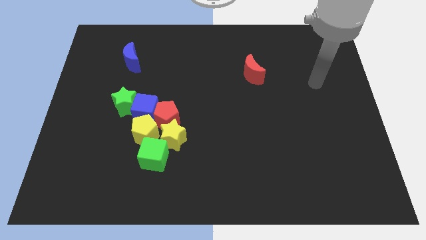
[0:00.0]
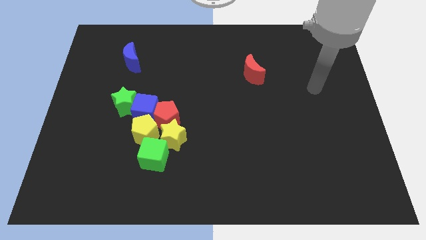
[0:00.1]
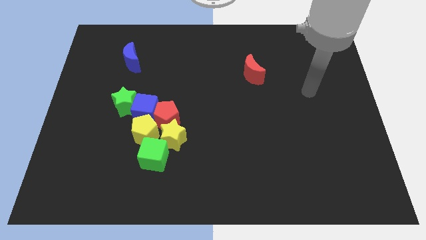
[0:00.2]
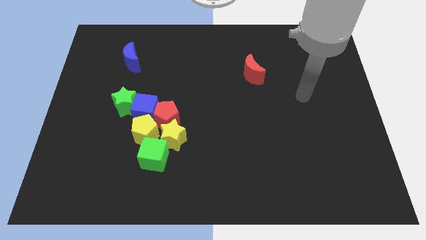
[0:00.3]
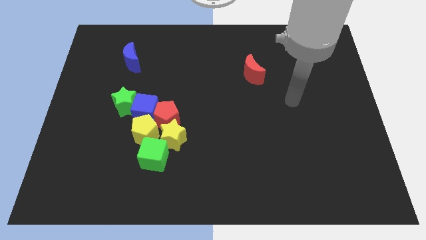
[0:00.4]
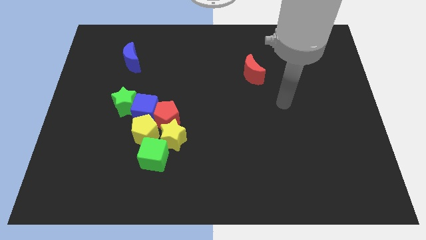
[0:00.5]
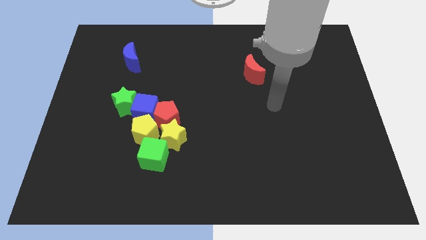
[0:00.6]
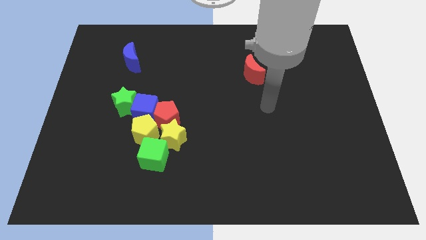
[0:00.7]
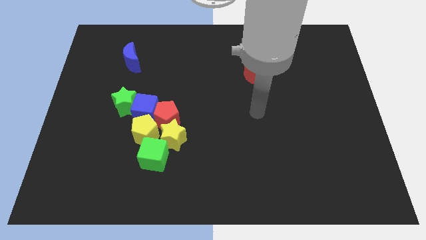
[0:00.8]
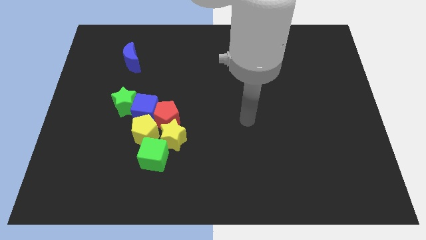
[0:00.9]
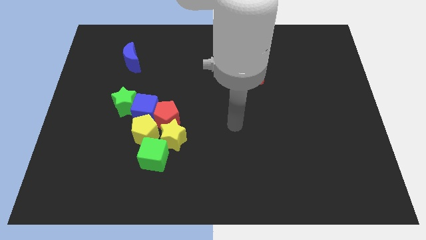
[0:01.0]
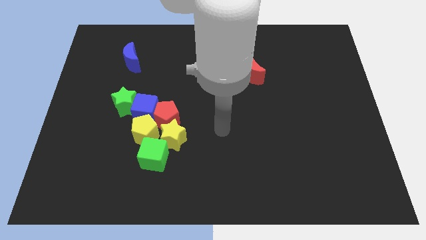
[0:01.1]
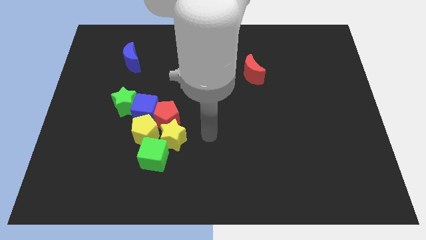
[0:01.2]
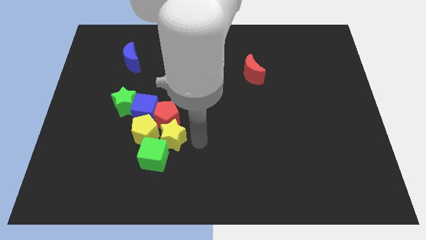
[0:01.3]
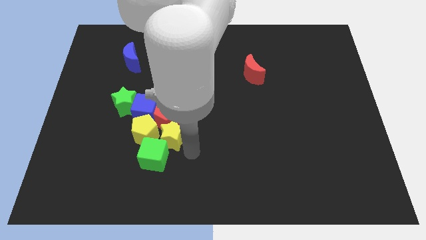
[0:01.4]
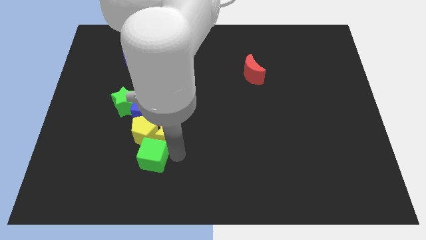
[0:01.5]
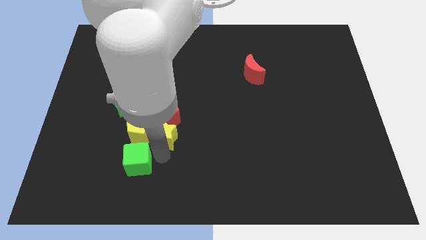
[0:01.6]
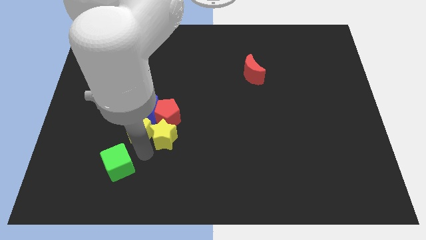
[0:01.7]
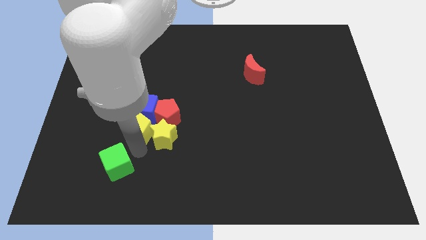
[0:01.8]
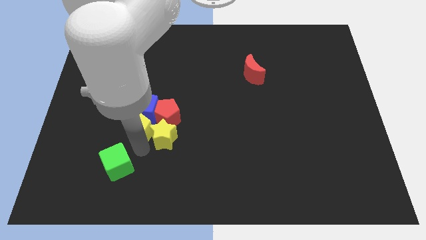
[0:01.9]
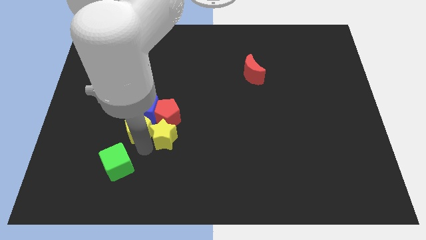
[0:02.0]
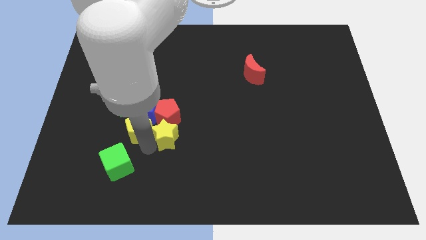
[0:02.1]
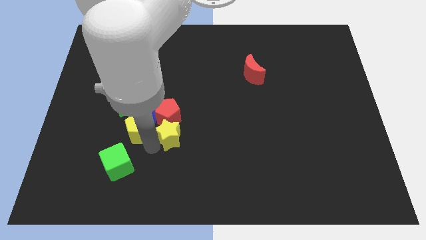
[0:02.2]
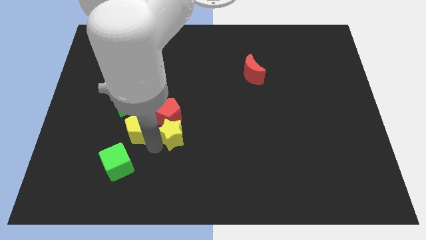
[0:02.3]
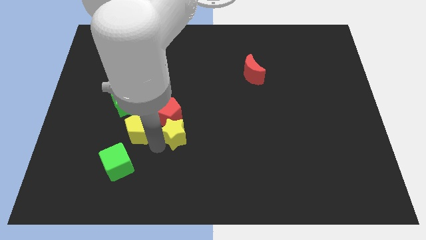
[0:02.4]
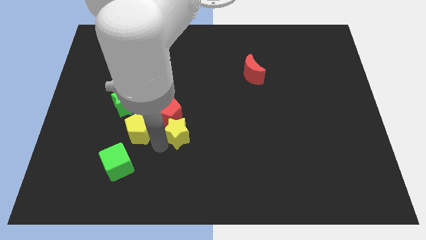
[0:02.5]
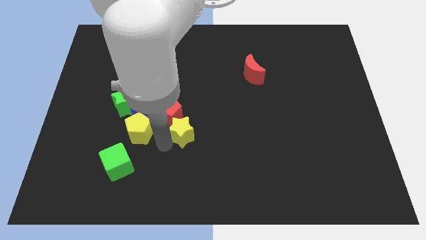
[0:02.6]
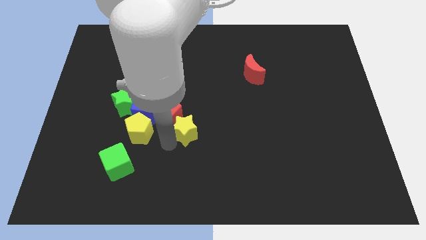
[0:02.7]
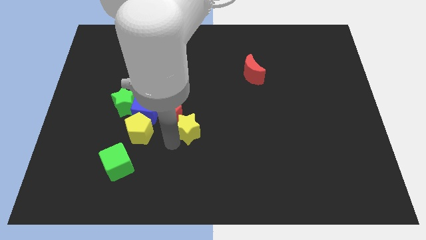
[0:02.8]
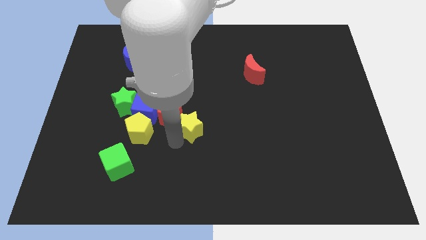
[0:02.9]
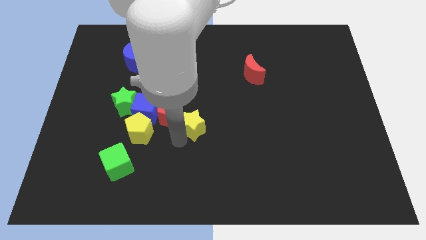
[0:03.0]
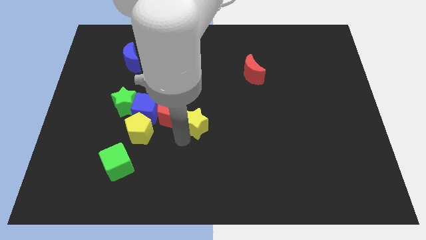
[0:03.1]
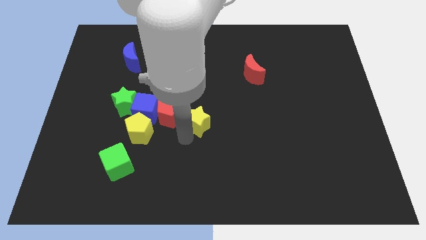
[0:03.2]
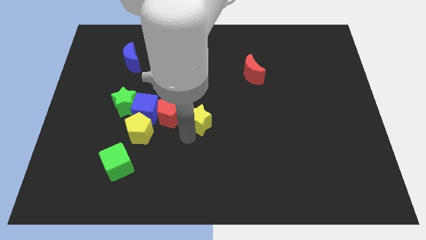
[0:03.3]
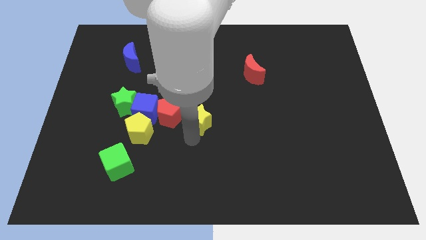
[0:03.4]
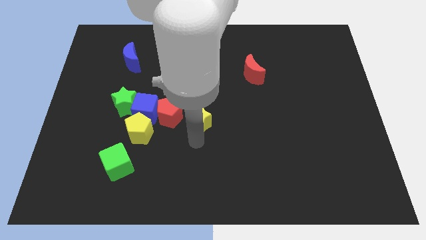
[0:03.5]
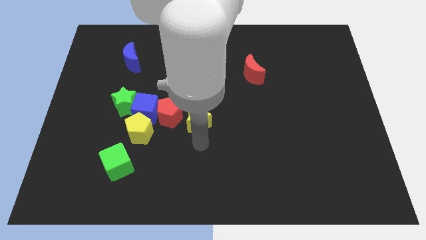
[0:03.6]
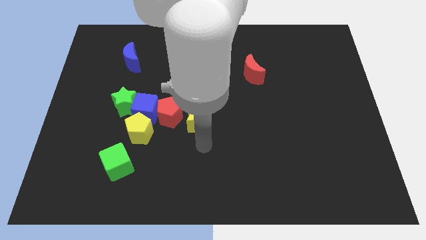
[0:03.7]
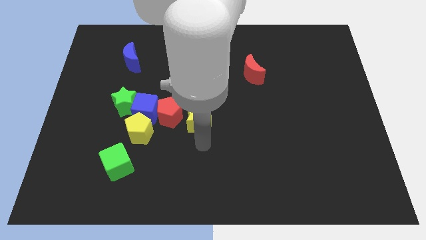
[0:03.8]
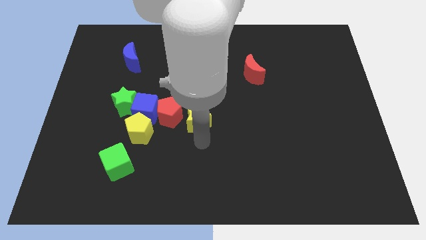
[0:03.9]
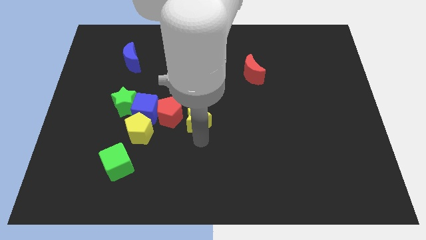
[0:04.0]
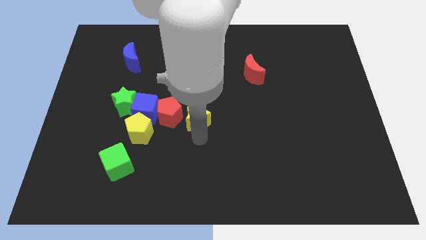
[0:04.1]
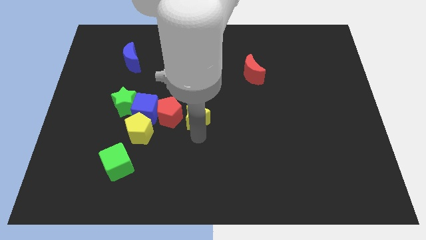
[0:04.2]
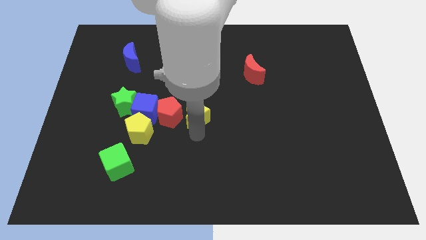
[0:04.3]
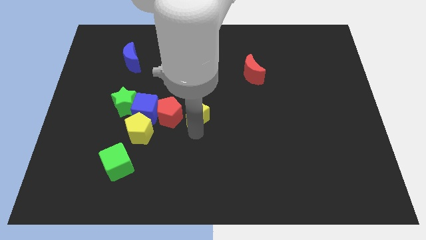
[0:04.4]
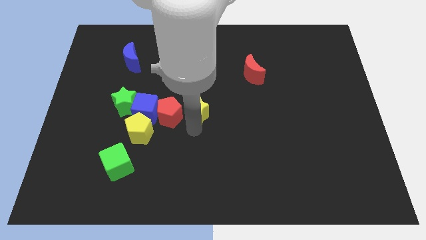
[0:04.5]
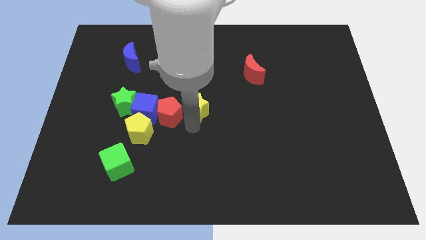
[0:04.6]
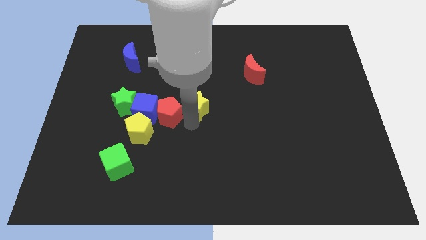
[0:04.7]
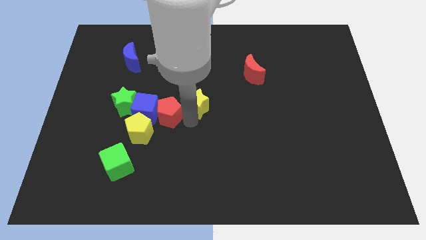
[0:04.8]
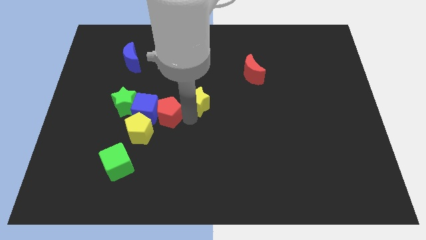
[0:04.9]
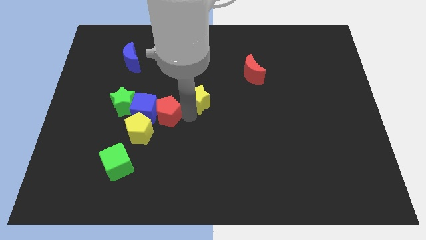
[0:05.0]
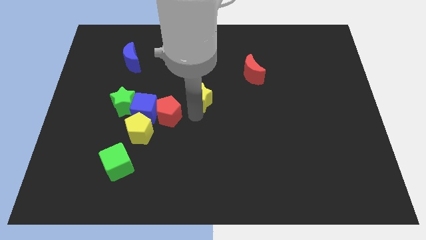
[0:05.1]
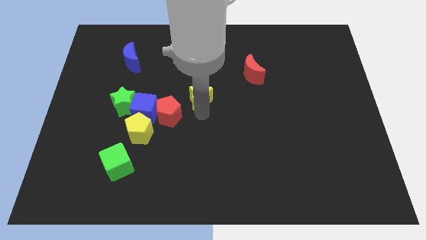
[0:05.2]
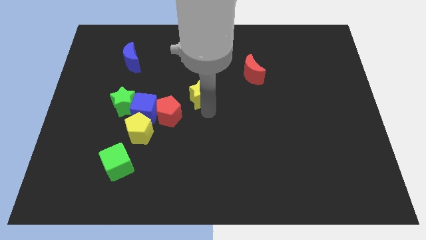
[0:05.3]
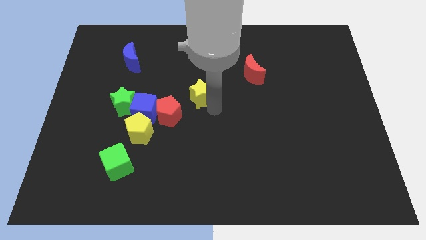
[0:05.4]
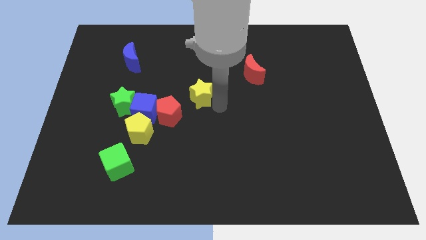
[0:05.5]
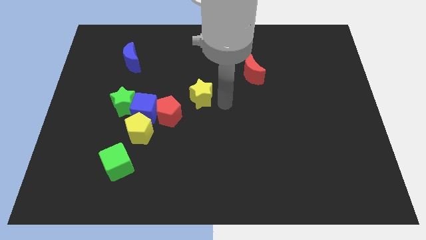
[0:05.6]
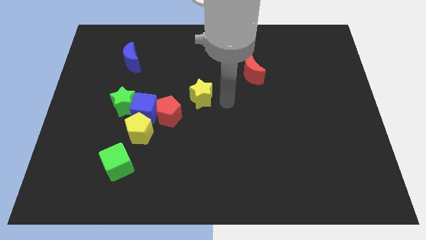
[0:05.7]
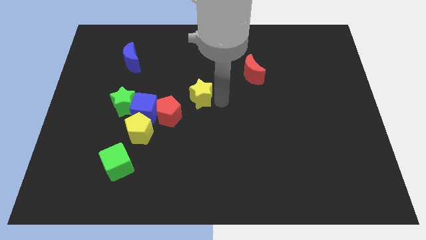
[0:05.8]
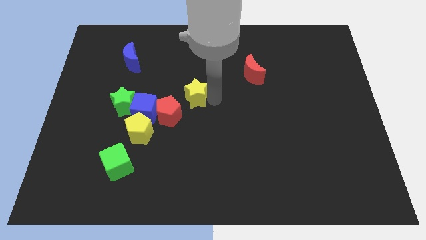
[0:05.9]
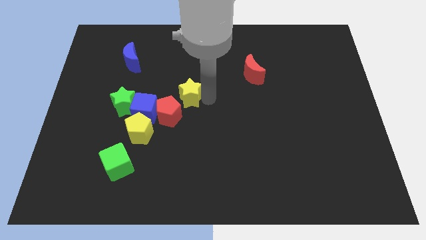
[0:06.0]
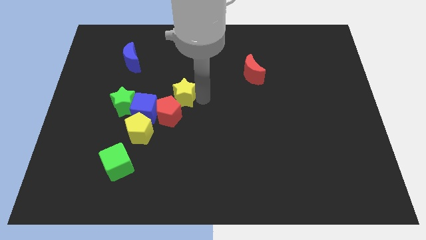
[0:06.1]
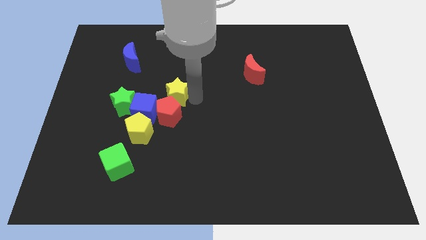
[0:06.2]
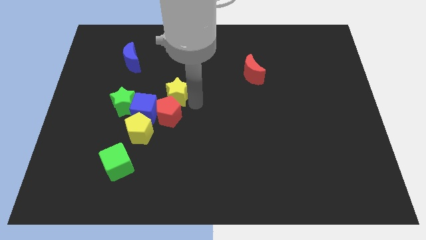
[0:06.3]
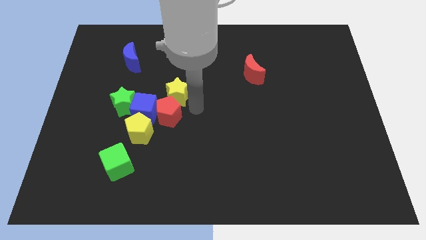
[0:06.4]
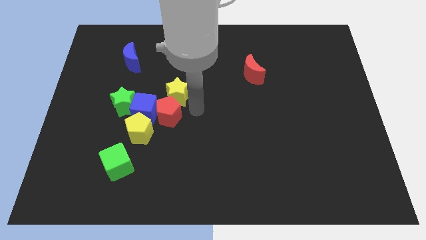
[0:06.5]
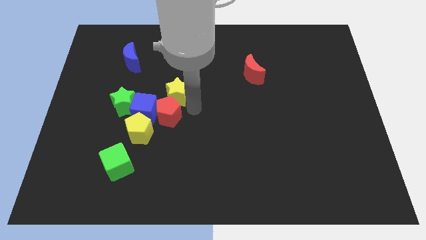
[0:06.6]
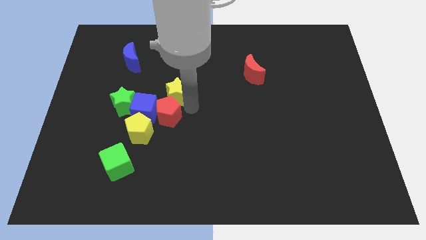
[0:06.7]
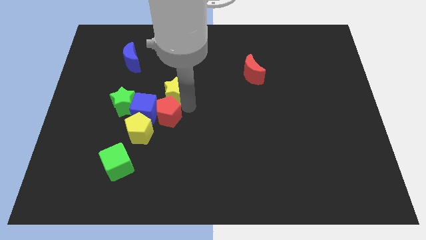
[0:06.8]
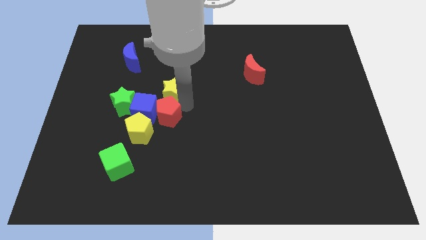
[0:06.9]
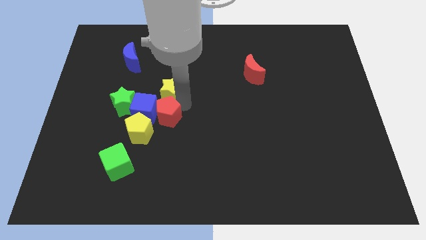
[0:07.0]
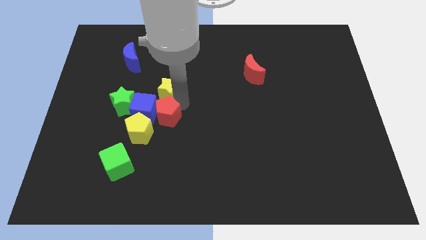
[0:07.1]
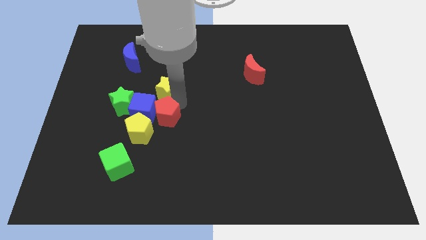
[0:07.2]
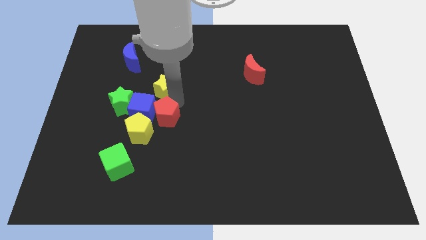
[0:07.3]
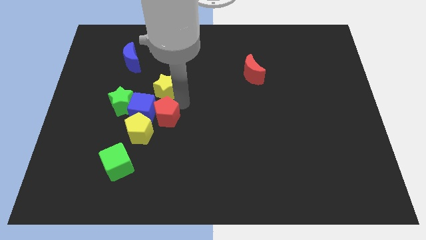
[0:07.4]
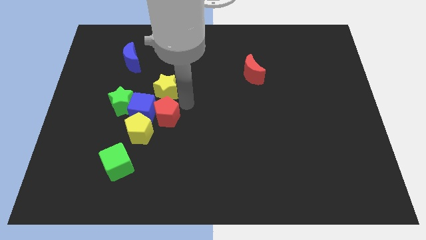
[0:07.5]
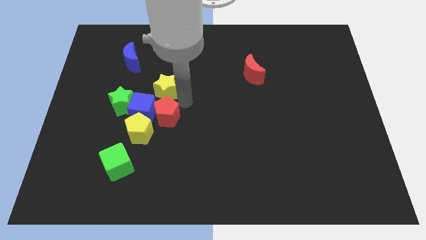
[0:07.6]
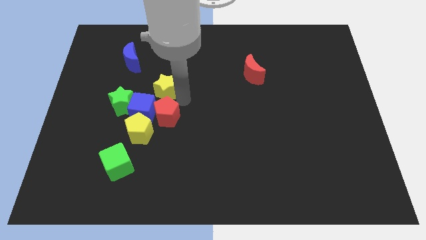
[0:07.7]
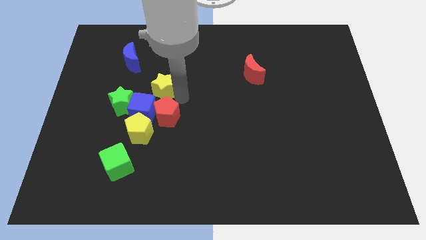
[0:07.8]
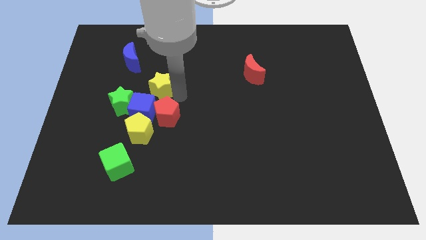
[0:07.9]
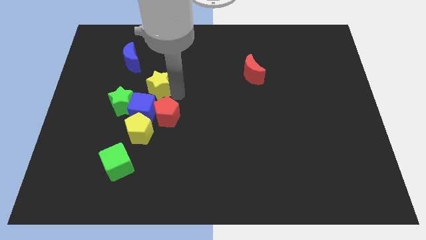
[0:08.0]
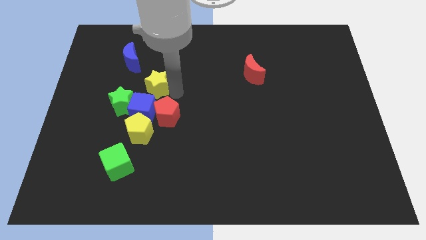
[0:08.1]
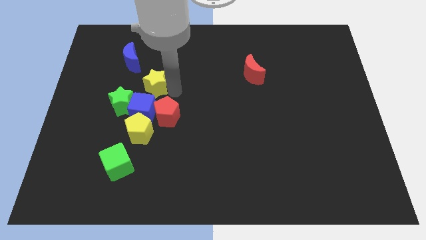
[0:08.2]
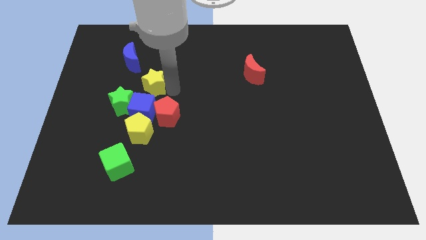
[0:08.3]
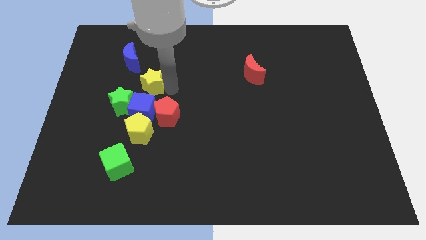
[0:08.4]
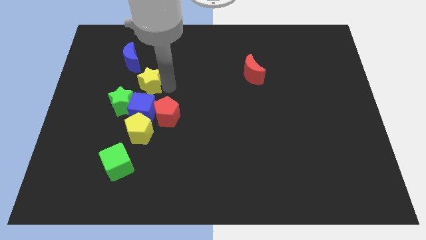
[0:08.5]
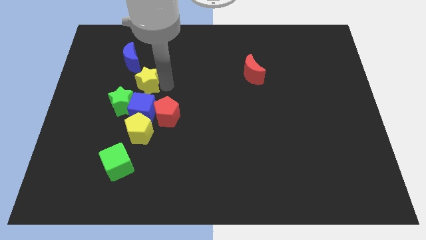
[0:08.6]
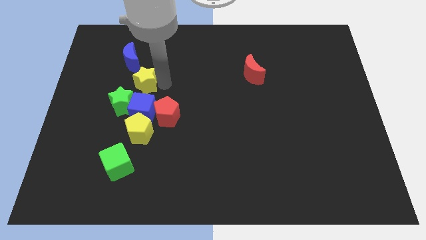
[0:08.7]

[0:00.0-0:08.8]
slide the yellow star to the top side of the green star
